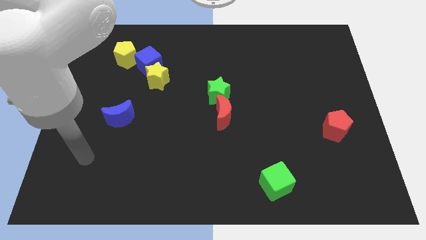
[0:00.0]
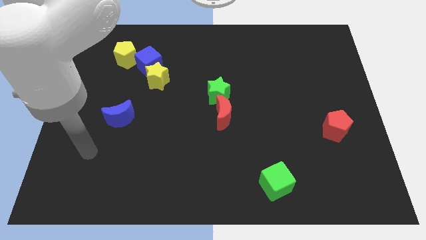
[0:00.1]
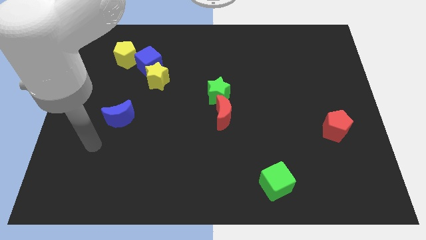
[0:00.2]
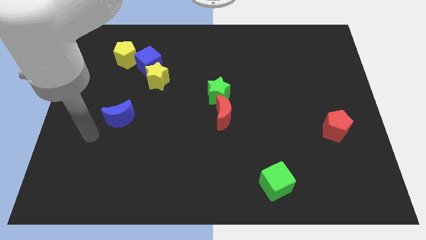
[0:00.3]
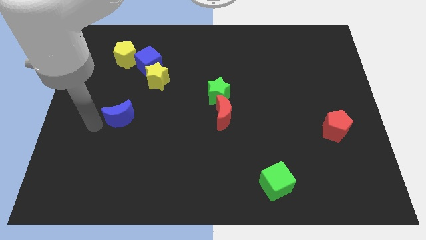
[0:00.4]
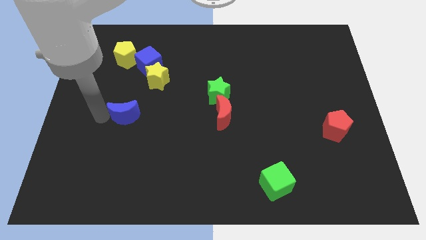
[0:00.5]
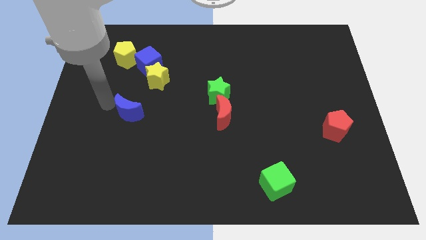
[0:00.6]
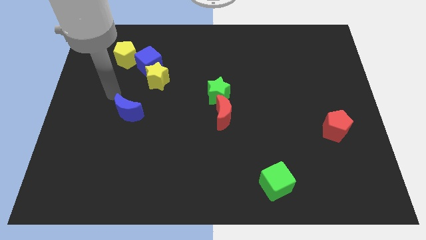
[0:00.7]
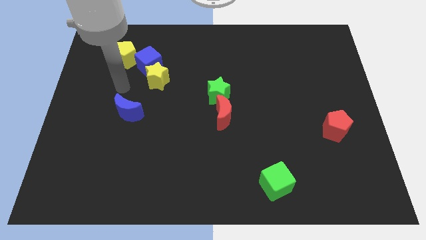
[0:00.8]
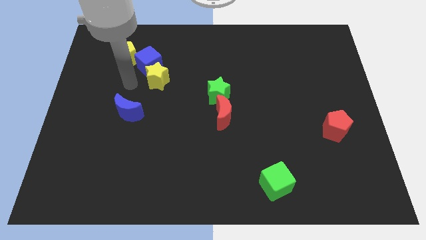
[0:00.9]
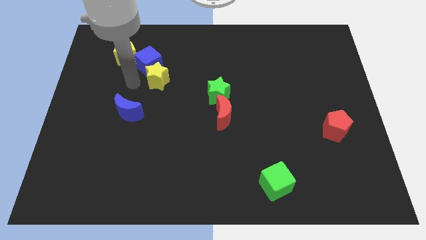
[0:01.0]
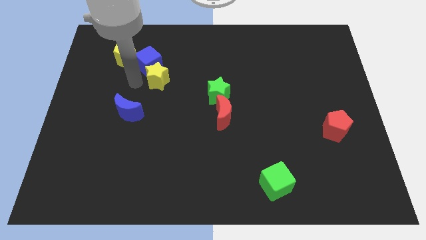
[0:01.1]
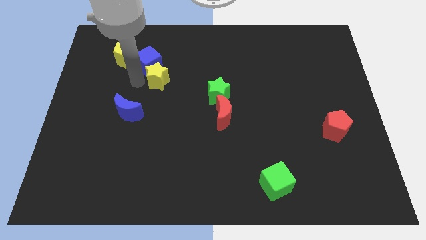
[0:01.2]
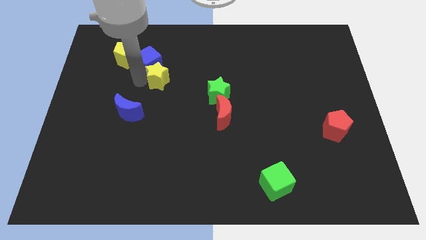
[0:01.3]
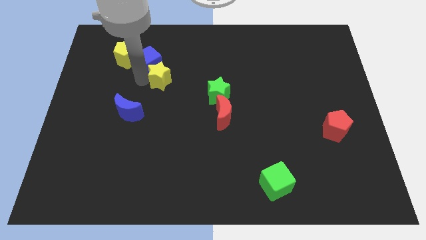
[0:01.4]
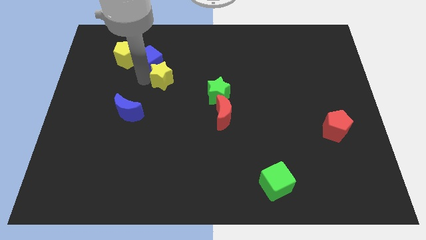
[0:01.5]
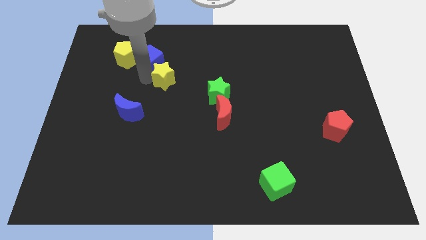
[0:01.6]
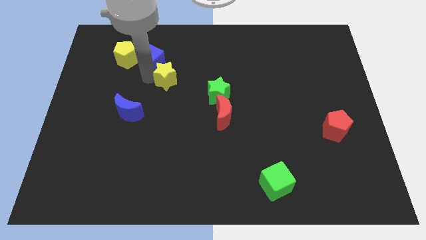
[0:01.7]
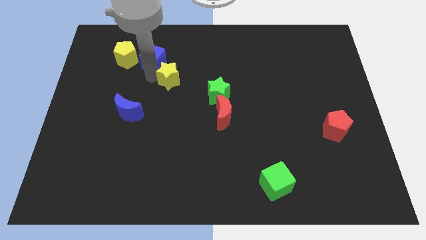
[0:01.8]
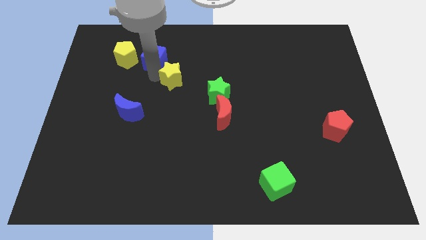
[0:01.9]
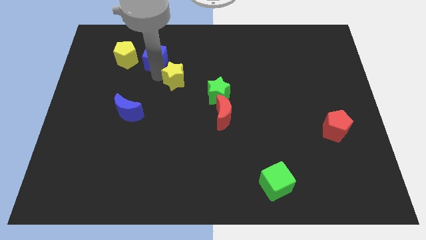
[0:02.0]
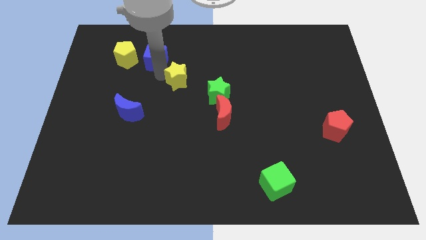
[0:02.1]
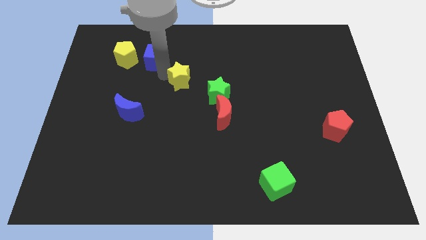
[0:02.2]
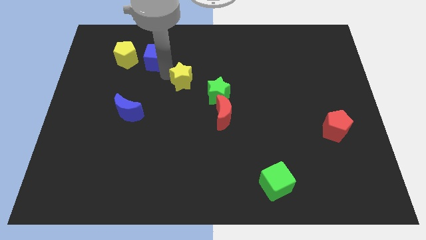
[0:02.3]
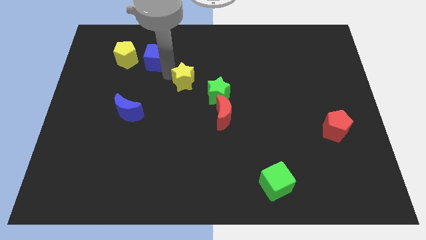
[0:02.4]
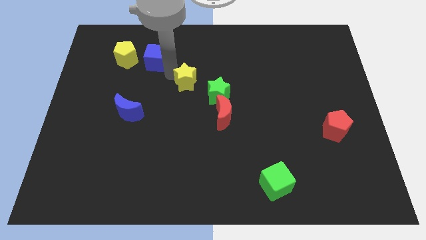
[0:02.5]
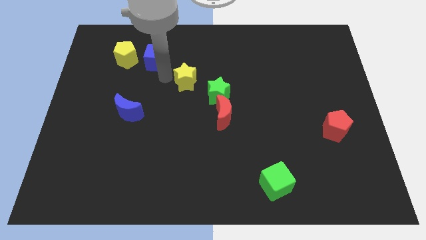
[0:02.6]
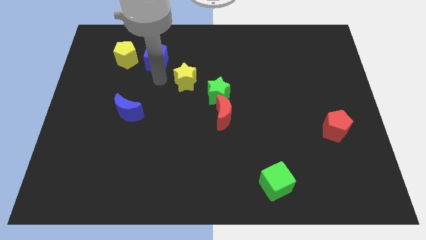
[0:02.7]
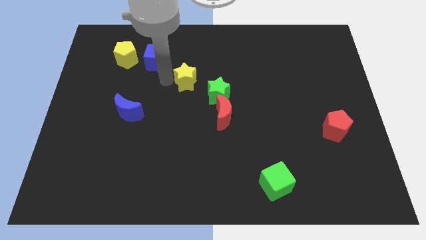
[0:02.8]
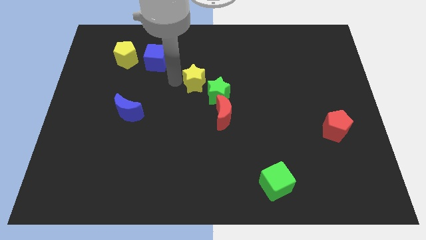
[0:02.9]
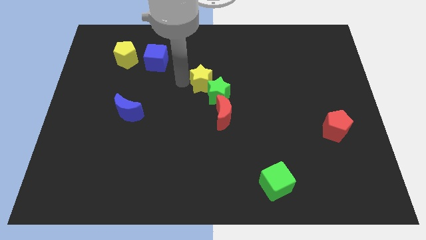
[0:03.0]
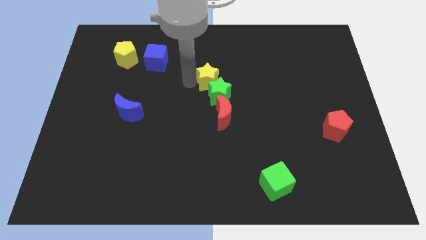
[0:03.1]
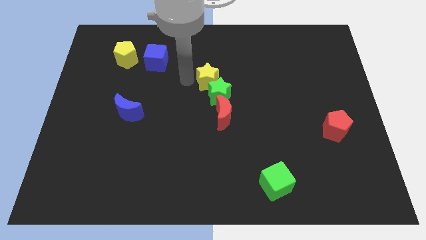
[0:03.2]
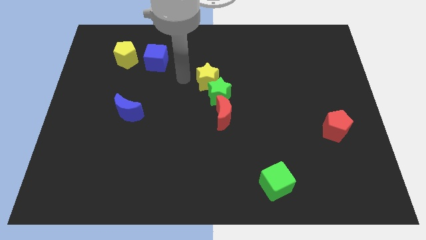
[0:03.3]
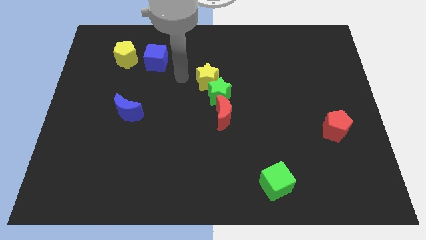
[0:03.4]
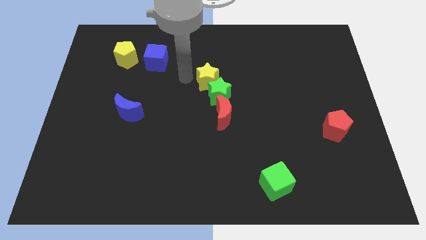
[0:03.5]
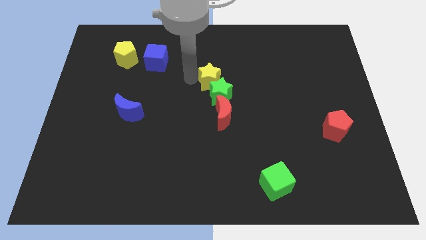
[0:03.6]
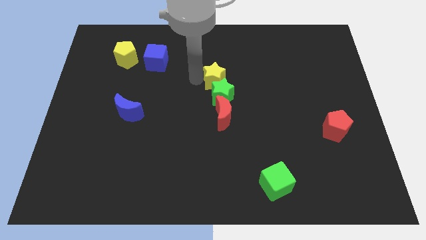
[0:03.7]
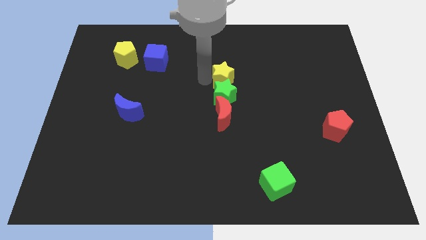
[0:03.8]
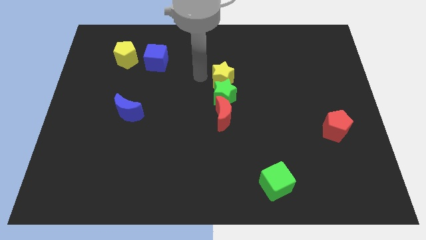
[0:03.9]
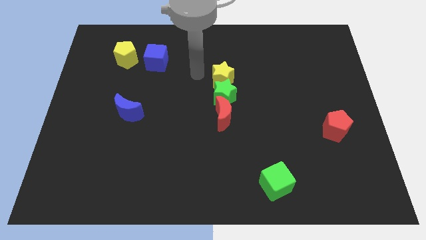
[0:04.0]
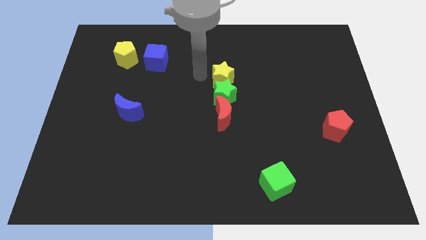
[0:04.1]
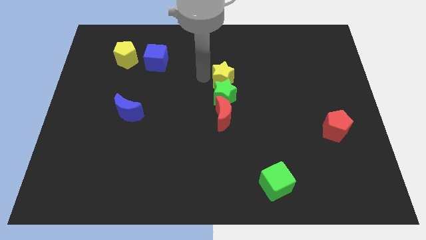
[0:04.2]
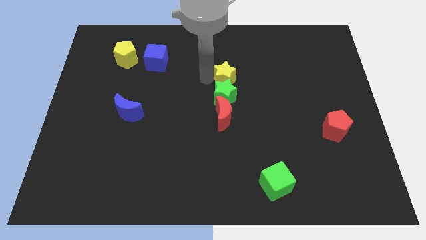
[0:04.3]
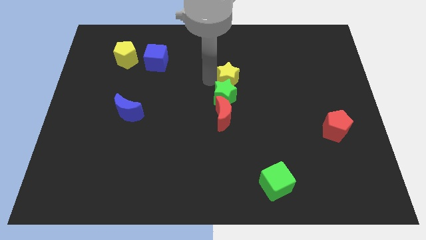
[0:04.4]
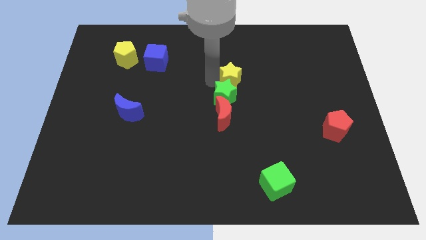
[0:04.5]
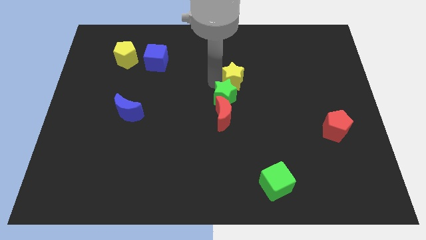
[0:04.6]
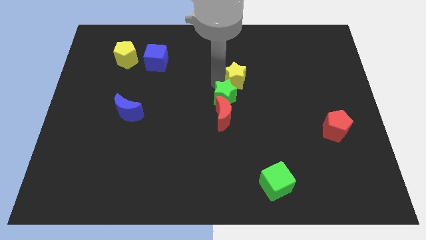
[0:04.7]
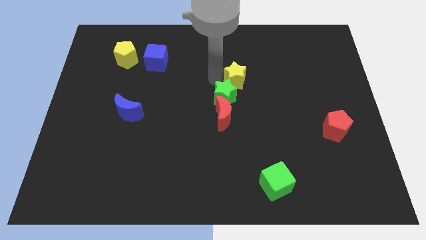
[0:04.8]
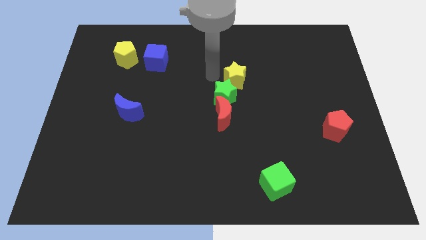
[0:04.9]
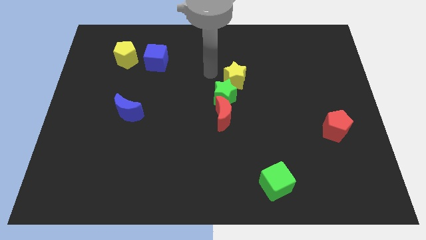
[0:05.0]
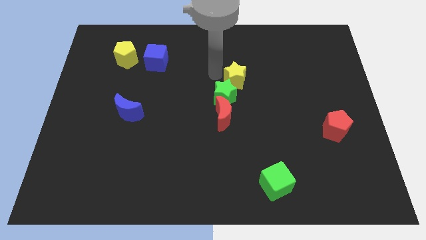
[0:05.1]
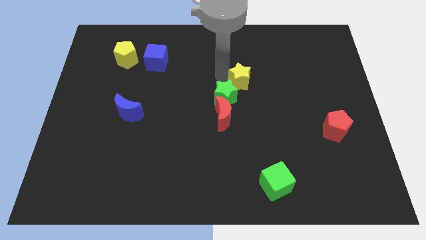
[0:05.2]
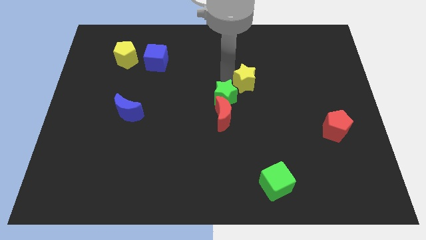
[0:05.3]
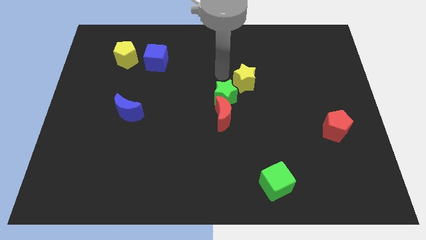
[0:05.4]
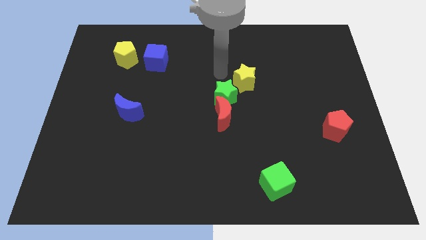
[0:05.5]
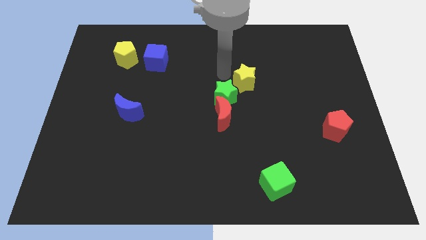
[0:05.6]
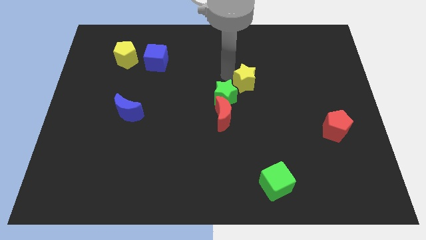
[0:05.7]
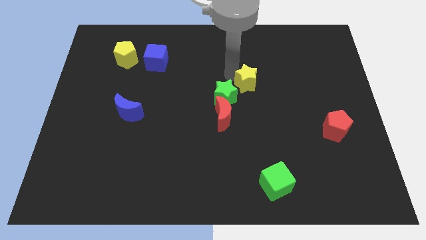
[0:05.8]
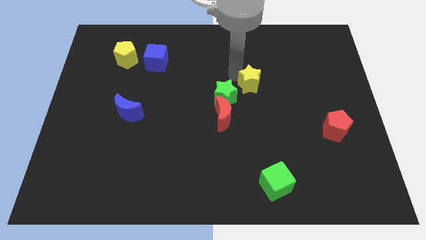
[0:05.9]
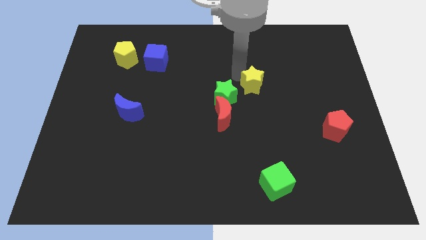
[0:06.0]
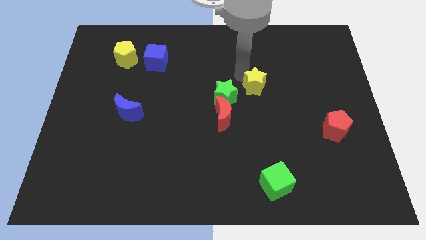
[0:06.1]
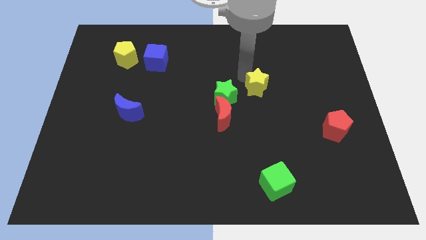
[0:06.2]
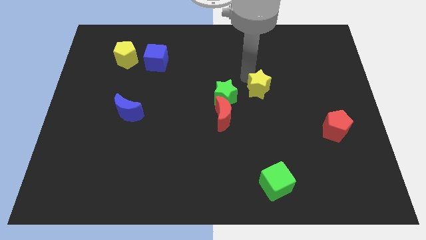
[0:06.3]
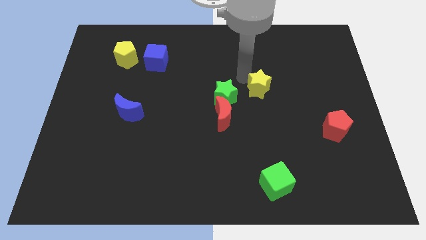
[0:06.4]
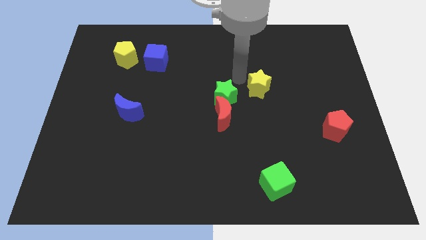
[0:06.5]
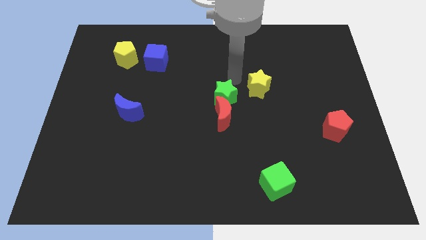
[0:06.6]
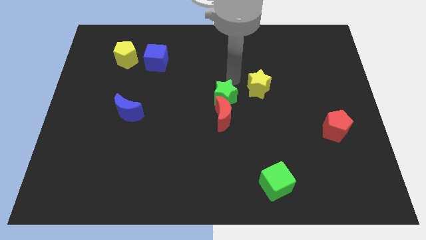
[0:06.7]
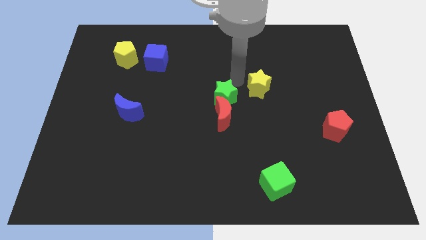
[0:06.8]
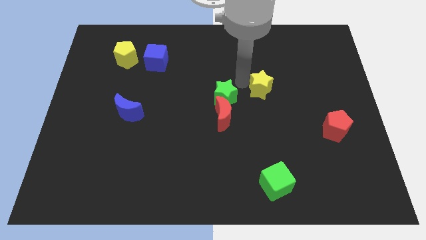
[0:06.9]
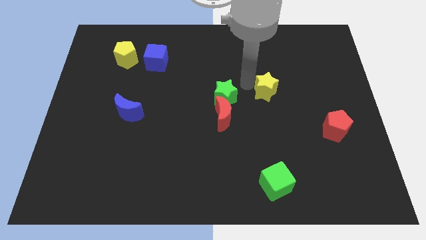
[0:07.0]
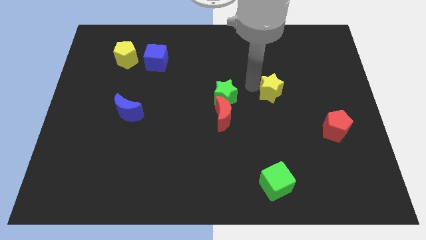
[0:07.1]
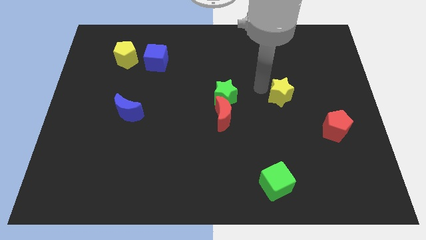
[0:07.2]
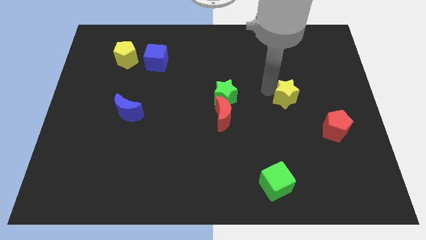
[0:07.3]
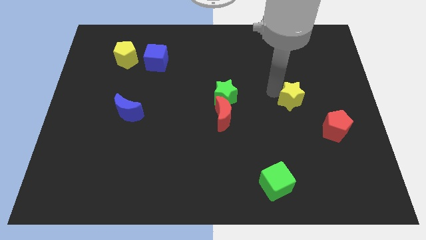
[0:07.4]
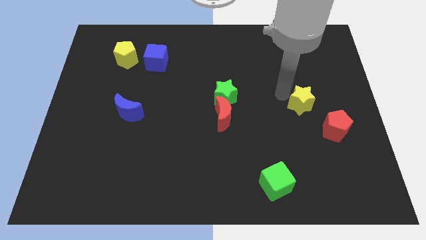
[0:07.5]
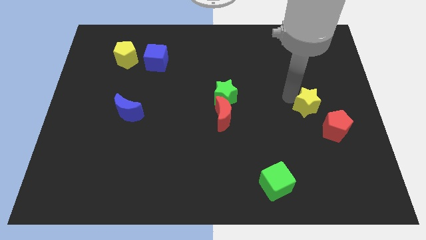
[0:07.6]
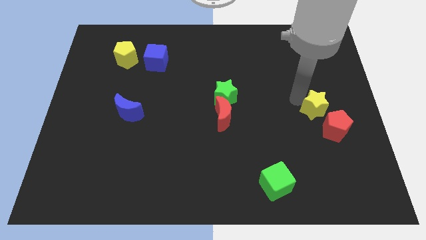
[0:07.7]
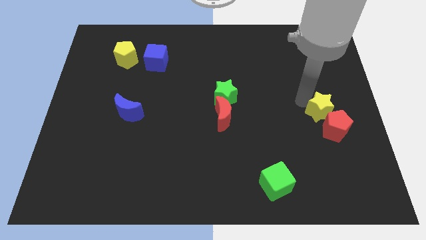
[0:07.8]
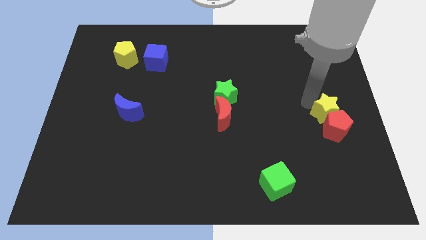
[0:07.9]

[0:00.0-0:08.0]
put the yellow star close to the red pentagon
